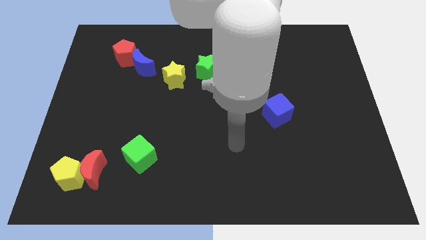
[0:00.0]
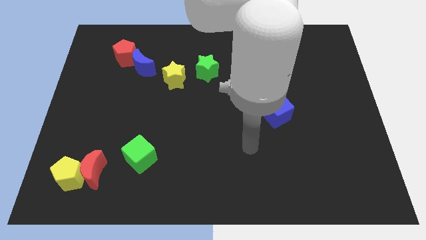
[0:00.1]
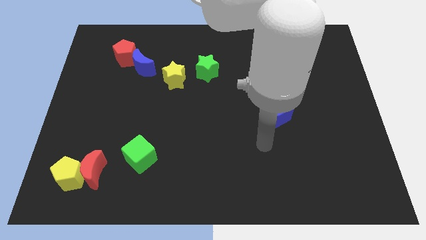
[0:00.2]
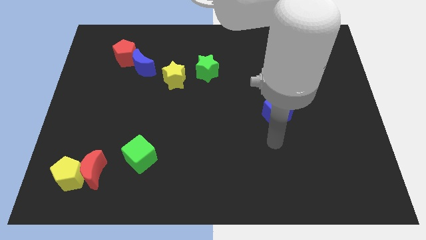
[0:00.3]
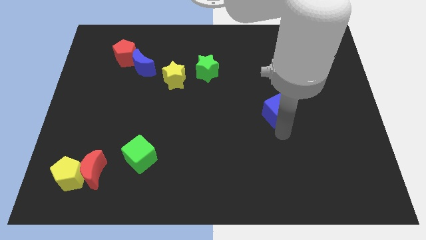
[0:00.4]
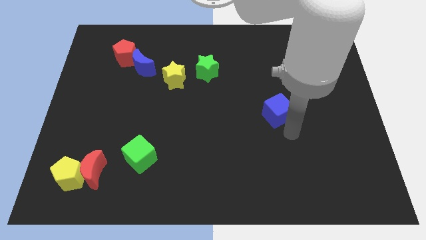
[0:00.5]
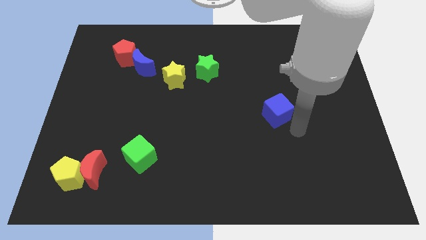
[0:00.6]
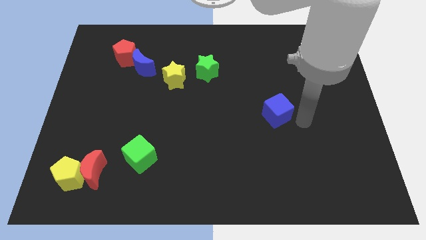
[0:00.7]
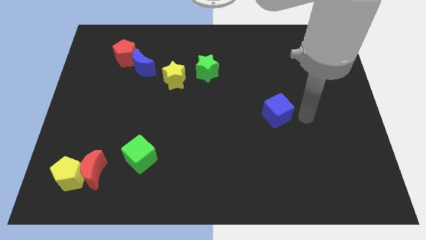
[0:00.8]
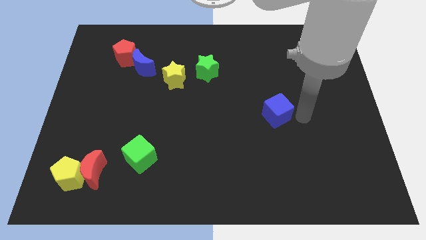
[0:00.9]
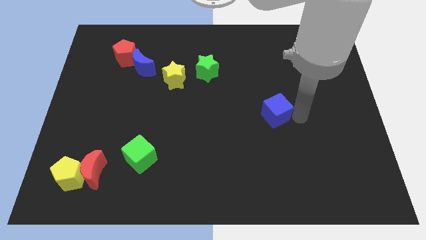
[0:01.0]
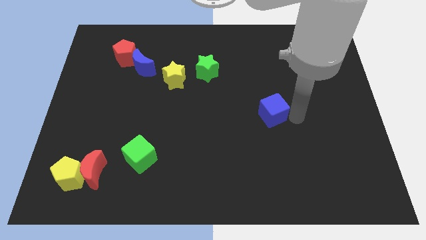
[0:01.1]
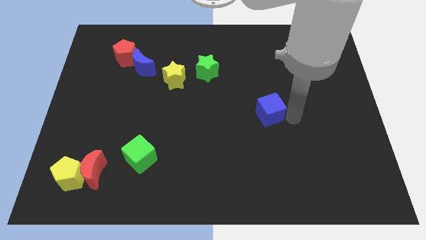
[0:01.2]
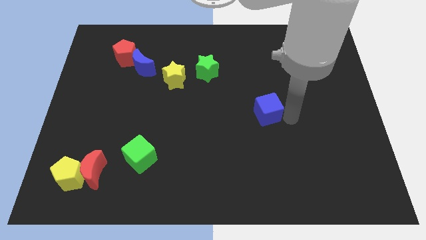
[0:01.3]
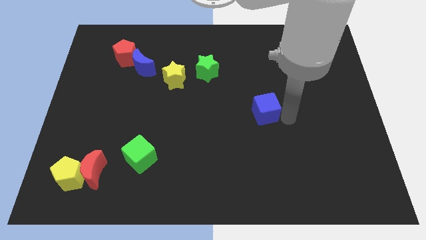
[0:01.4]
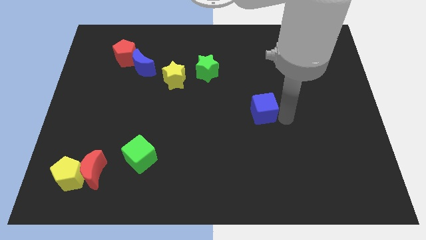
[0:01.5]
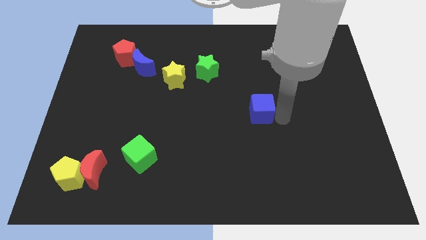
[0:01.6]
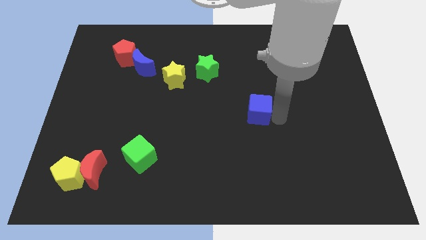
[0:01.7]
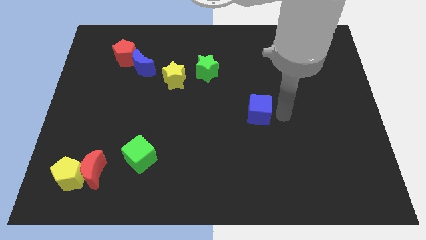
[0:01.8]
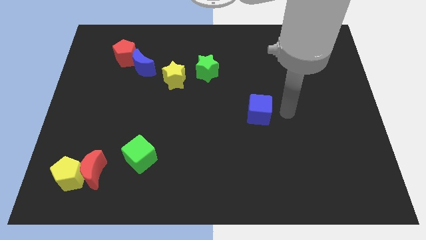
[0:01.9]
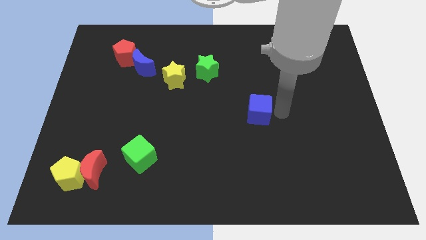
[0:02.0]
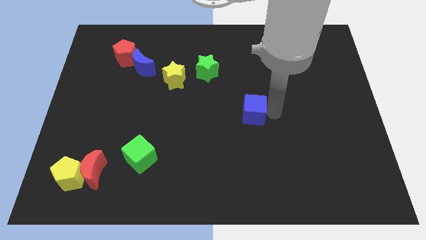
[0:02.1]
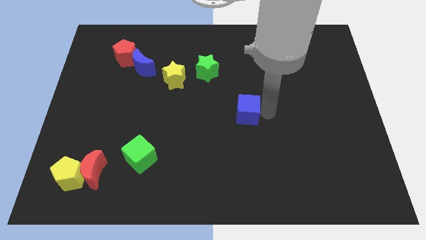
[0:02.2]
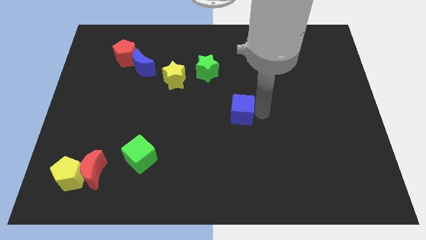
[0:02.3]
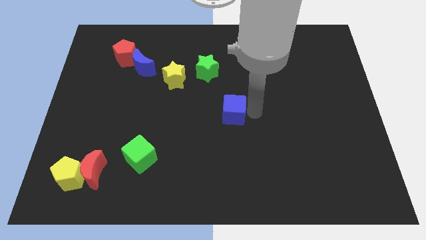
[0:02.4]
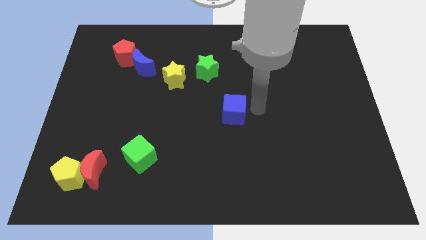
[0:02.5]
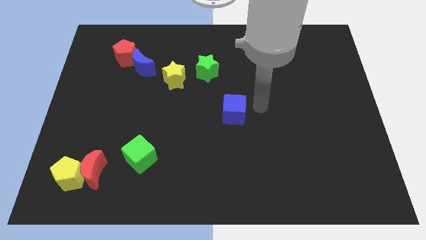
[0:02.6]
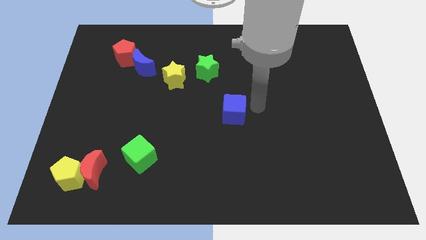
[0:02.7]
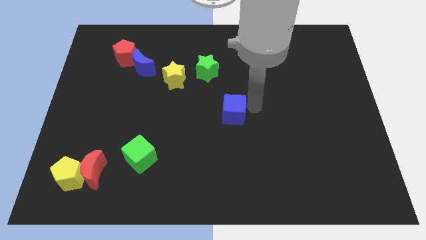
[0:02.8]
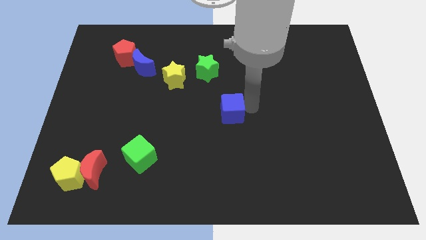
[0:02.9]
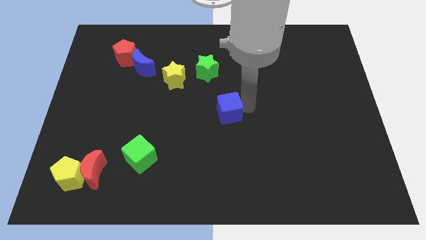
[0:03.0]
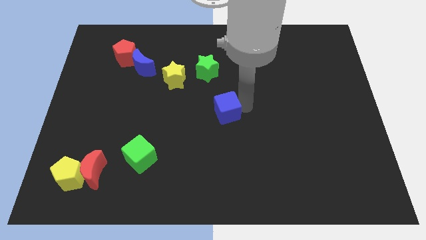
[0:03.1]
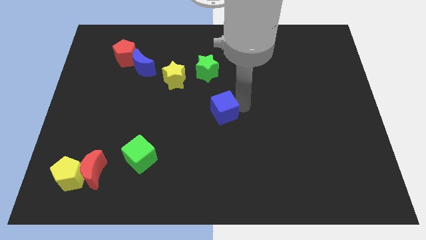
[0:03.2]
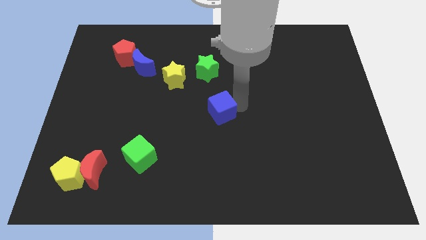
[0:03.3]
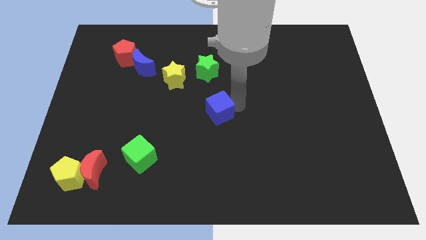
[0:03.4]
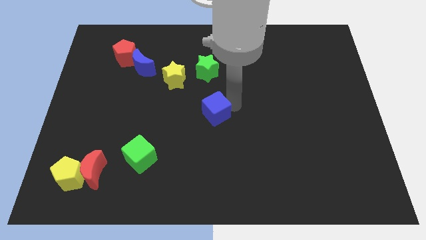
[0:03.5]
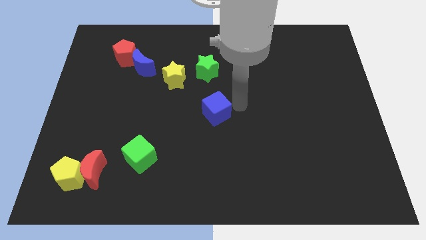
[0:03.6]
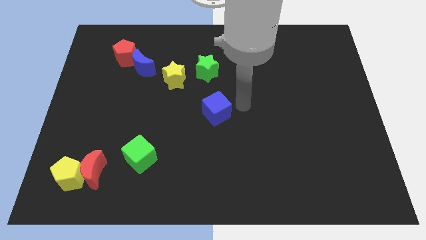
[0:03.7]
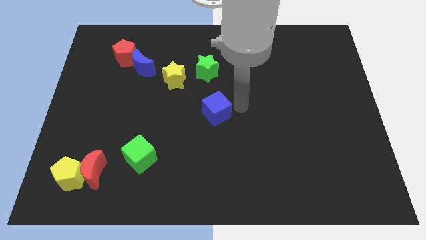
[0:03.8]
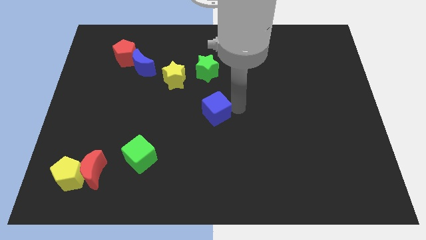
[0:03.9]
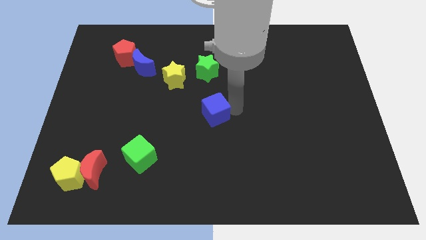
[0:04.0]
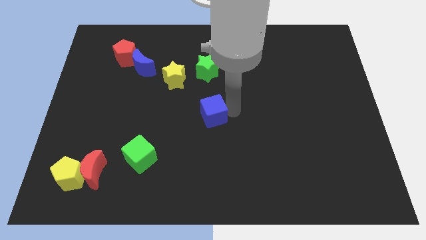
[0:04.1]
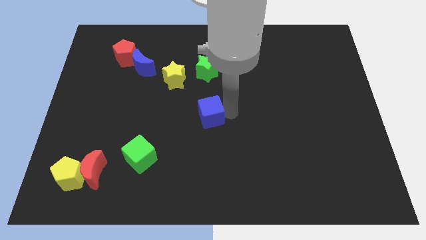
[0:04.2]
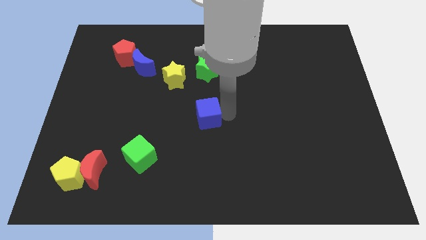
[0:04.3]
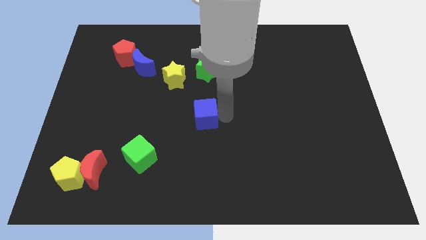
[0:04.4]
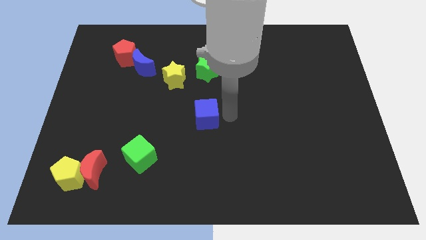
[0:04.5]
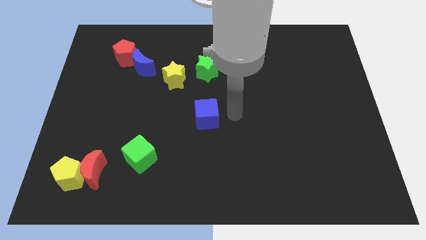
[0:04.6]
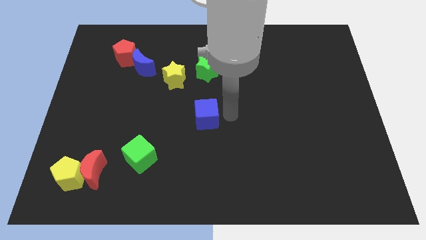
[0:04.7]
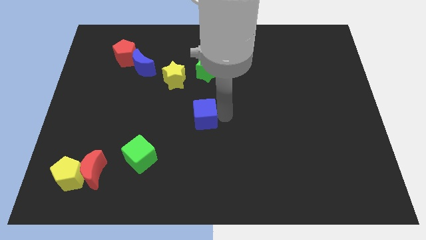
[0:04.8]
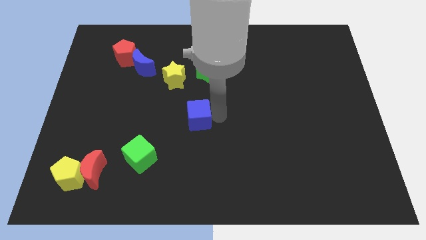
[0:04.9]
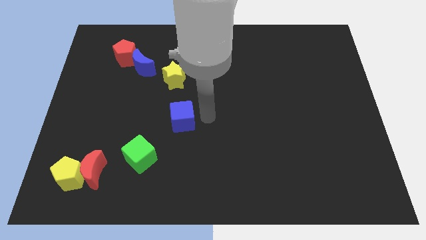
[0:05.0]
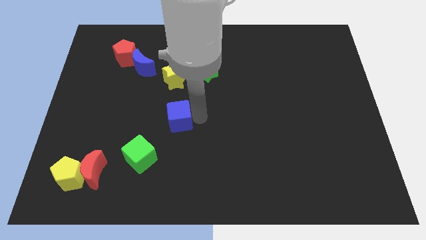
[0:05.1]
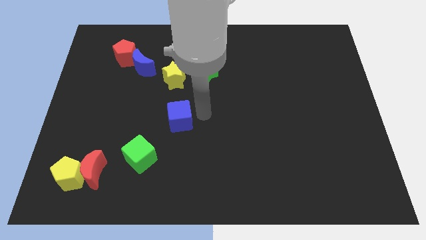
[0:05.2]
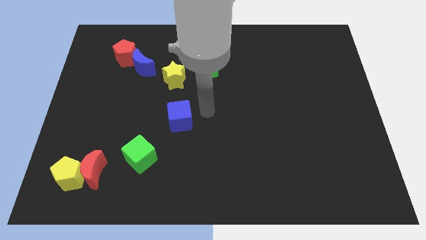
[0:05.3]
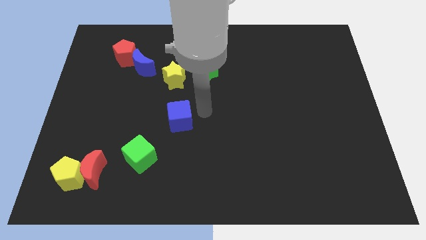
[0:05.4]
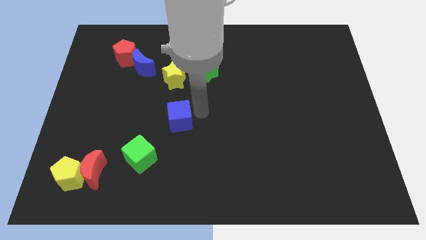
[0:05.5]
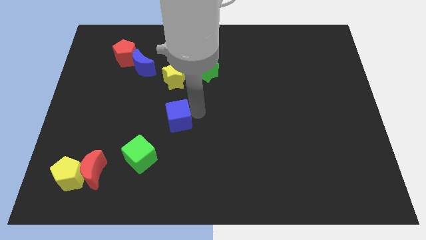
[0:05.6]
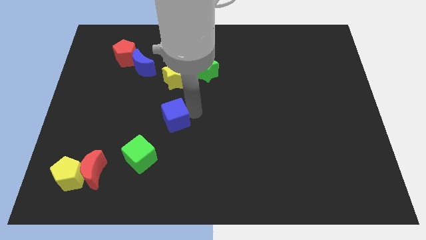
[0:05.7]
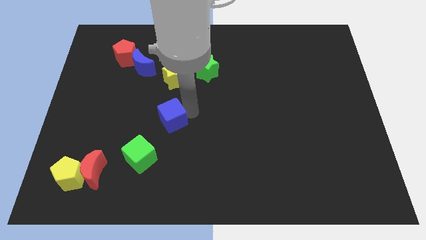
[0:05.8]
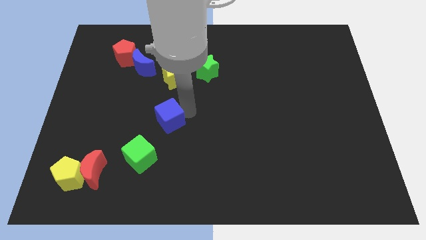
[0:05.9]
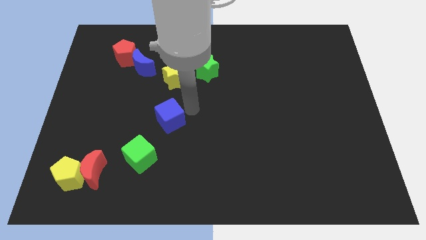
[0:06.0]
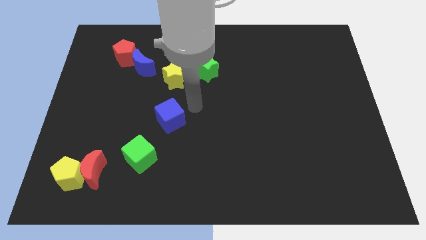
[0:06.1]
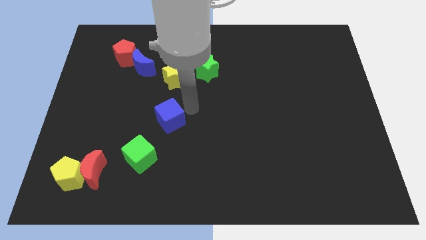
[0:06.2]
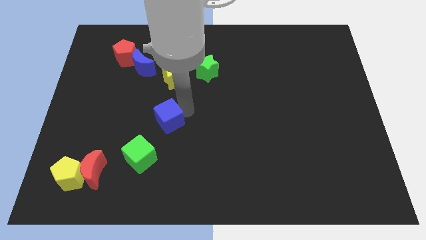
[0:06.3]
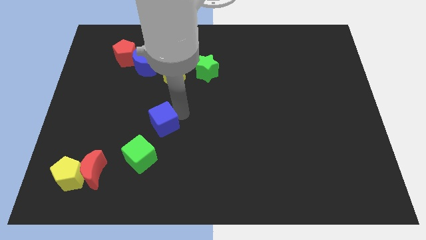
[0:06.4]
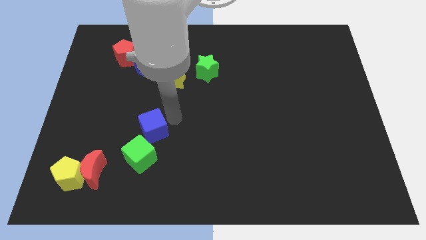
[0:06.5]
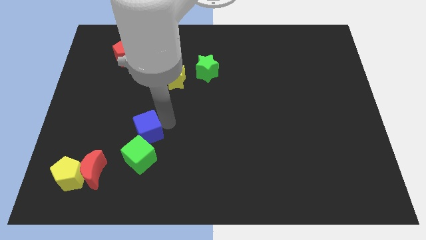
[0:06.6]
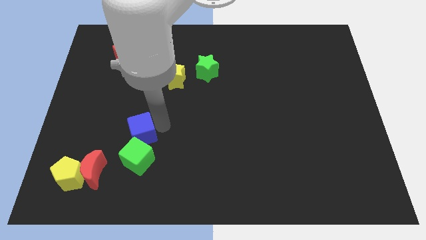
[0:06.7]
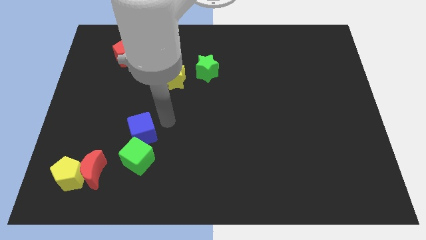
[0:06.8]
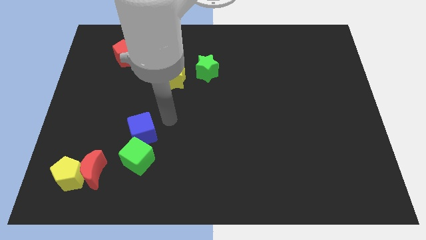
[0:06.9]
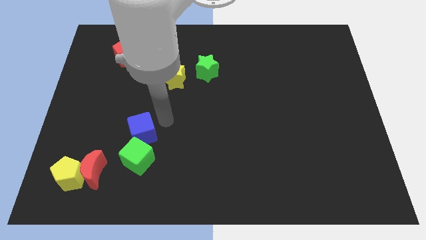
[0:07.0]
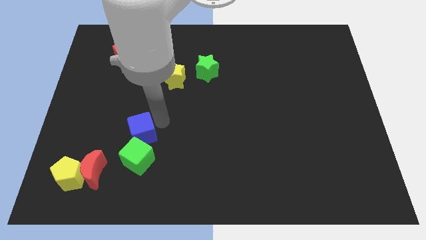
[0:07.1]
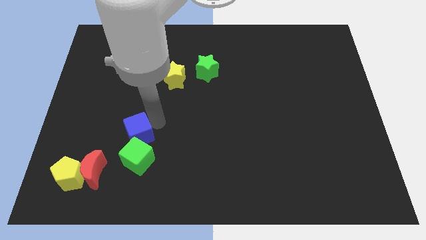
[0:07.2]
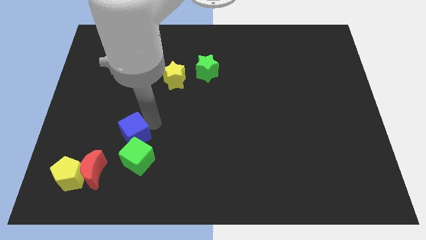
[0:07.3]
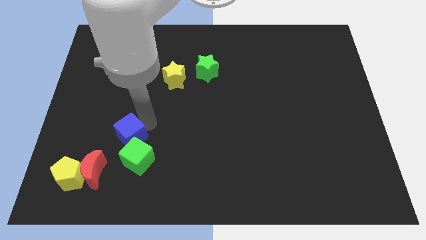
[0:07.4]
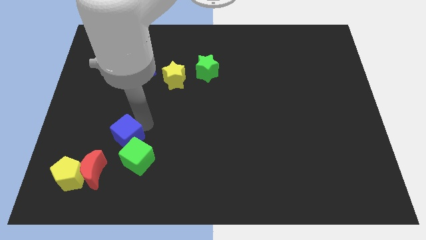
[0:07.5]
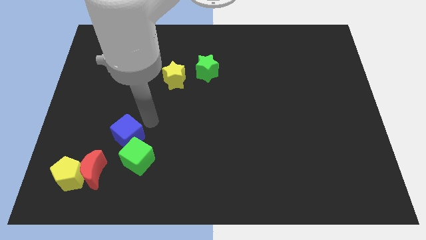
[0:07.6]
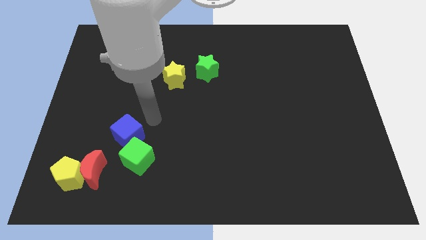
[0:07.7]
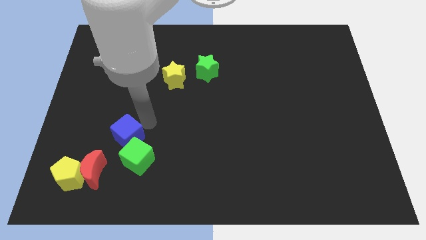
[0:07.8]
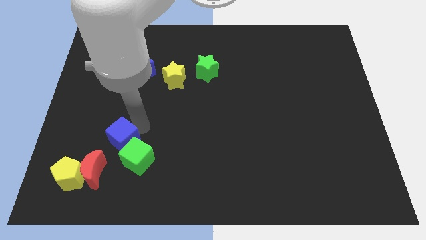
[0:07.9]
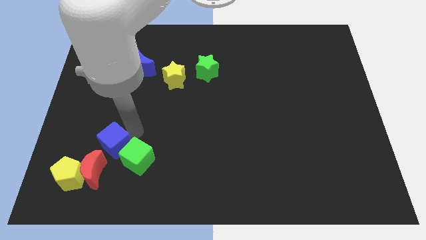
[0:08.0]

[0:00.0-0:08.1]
push the blue cube to the top right of the yellow pentagon
